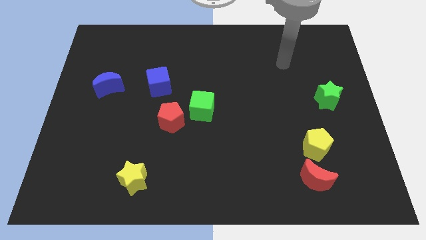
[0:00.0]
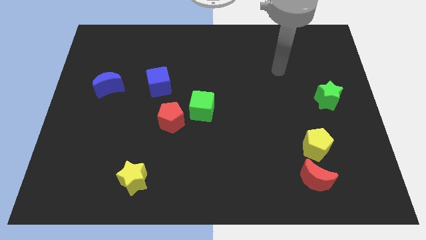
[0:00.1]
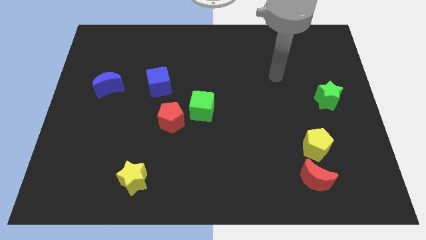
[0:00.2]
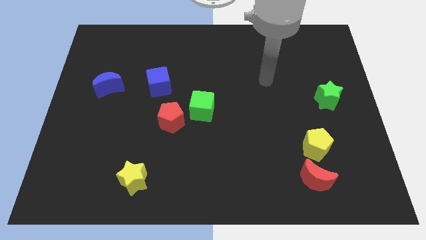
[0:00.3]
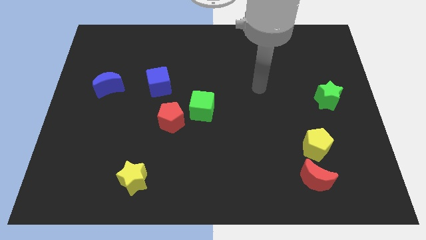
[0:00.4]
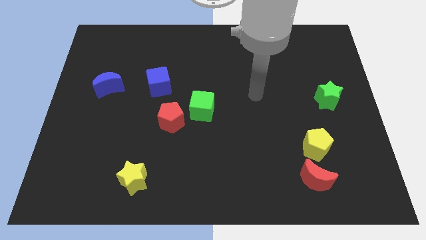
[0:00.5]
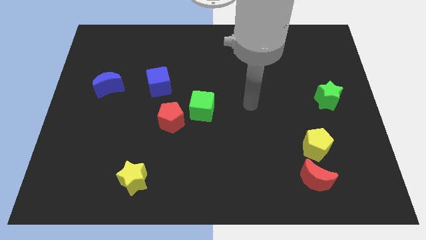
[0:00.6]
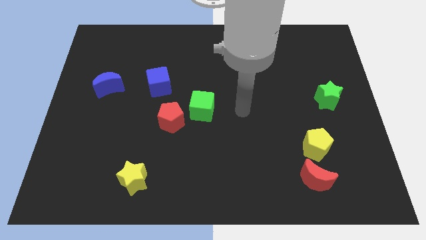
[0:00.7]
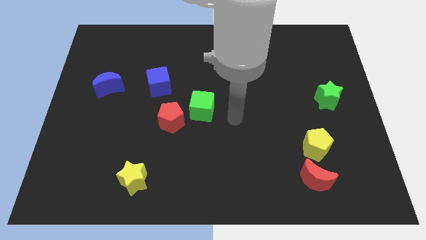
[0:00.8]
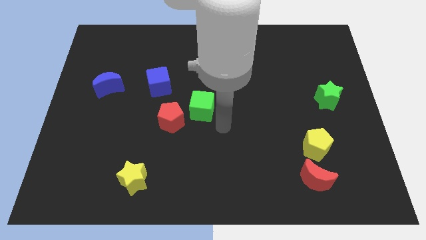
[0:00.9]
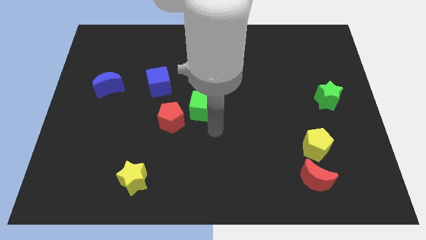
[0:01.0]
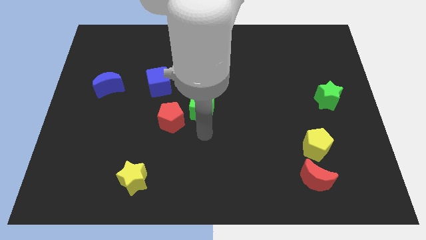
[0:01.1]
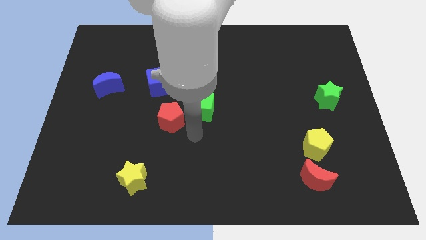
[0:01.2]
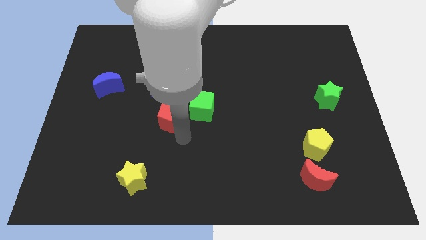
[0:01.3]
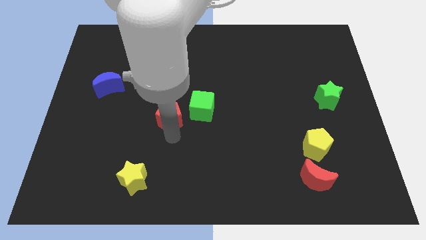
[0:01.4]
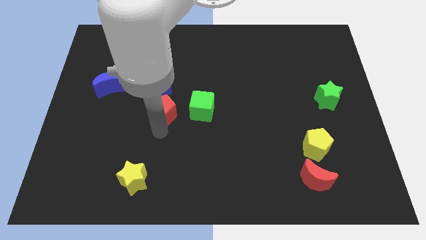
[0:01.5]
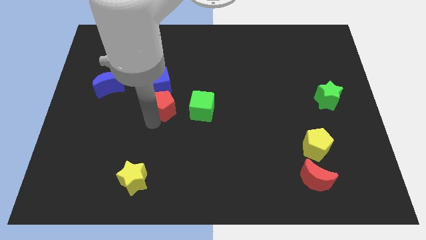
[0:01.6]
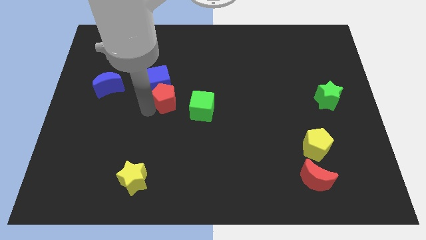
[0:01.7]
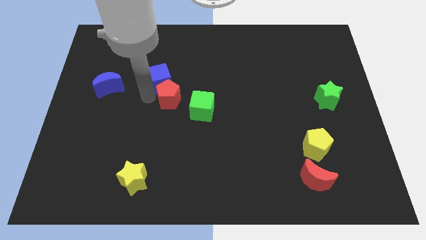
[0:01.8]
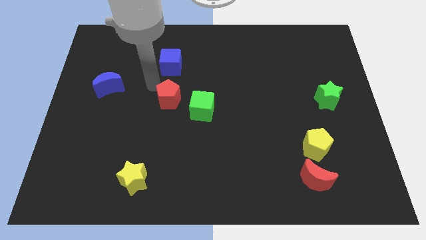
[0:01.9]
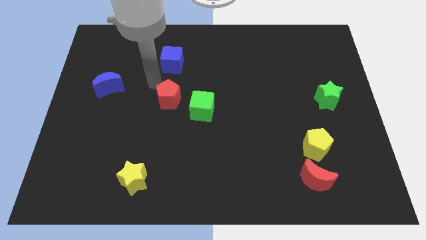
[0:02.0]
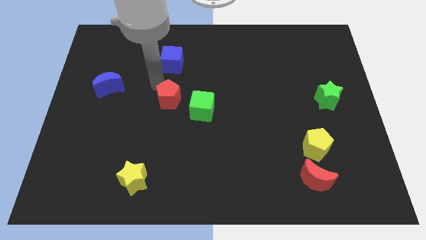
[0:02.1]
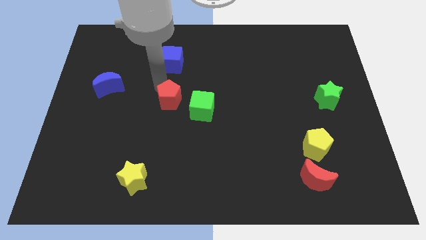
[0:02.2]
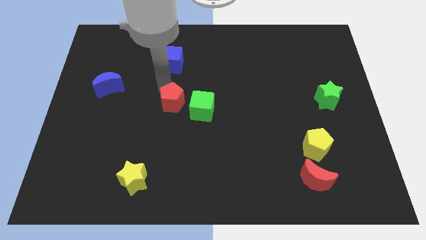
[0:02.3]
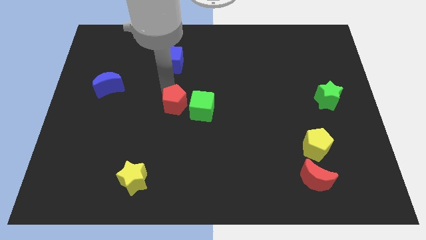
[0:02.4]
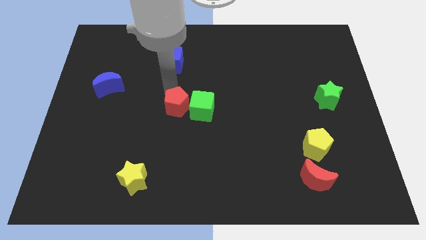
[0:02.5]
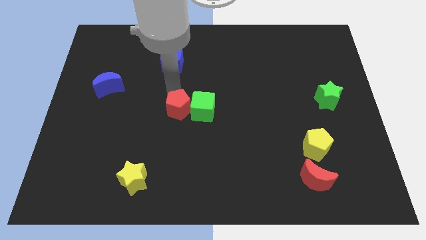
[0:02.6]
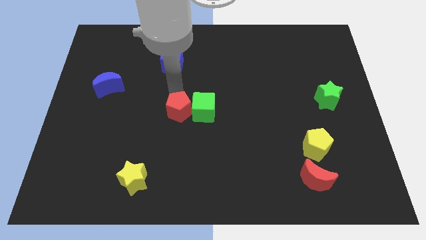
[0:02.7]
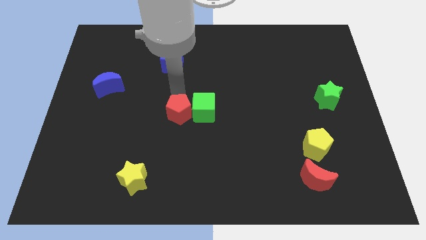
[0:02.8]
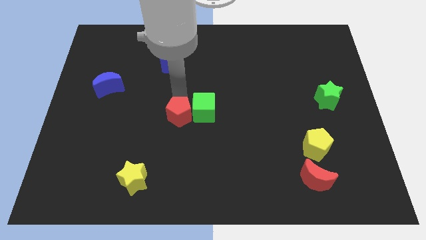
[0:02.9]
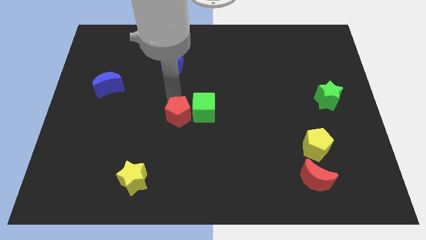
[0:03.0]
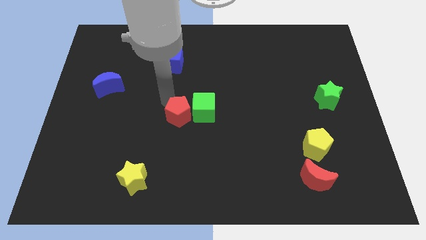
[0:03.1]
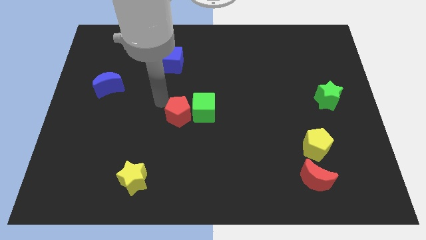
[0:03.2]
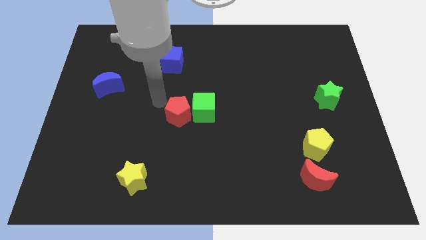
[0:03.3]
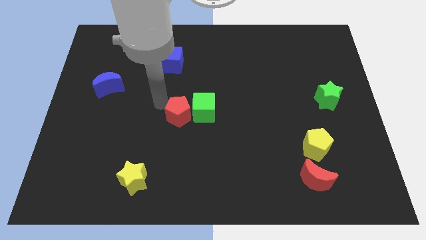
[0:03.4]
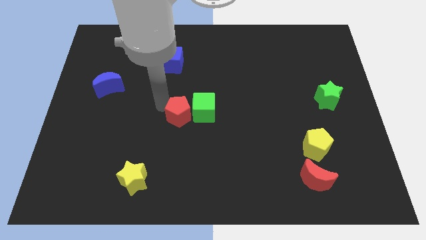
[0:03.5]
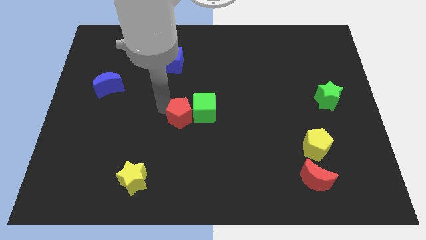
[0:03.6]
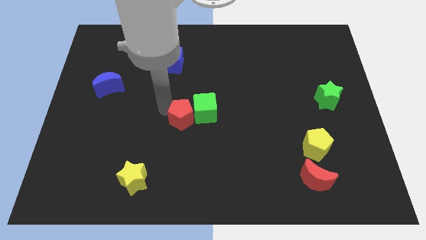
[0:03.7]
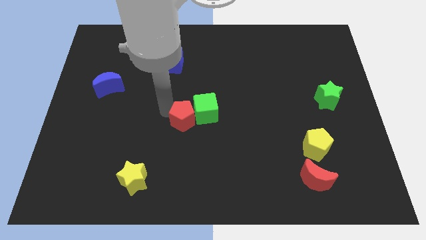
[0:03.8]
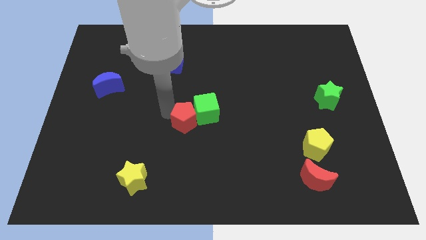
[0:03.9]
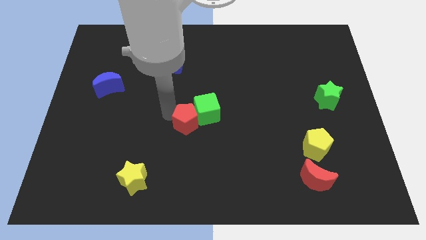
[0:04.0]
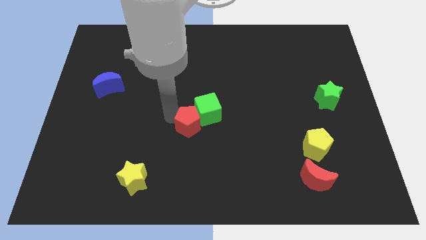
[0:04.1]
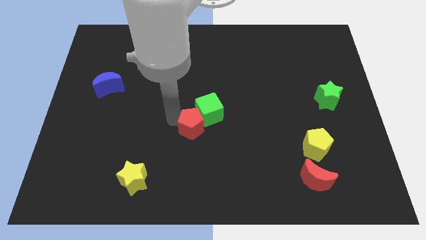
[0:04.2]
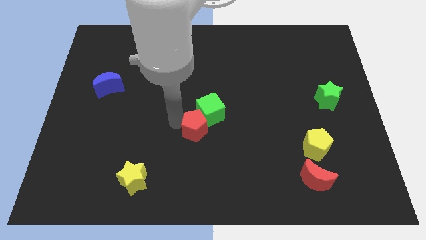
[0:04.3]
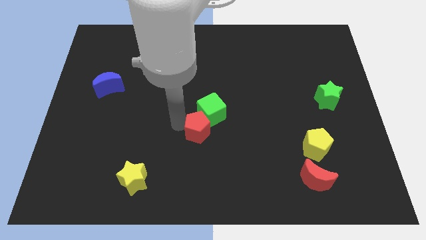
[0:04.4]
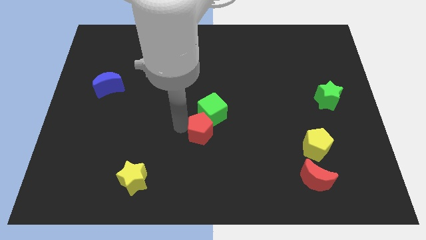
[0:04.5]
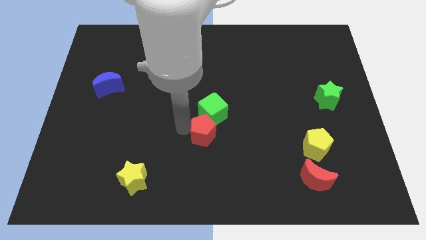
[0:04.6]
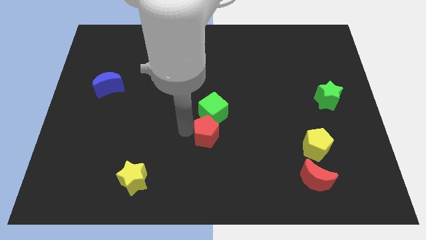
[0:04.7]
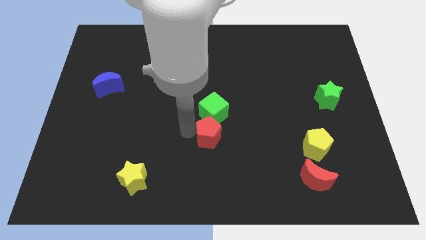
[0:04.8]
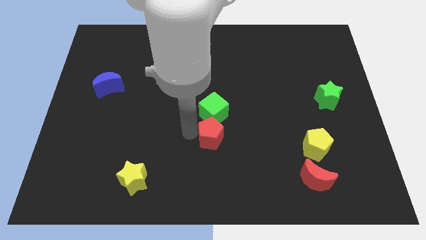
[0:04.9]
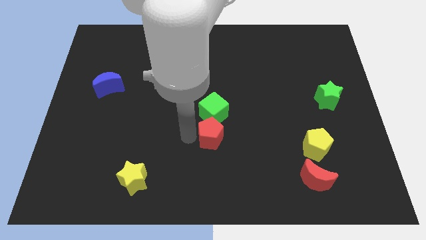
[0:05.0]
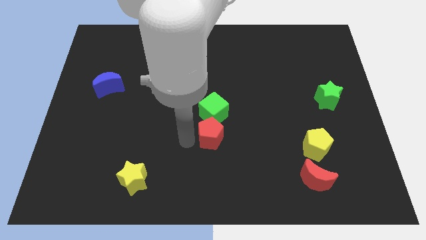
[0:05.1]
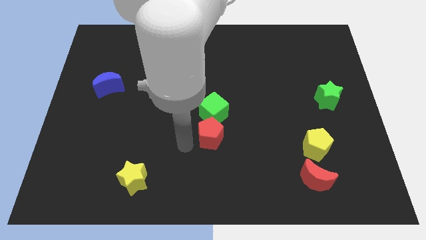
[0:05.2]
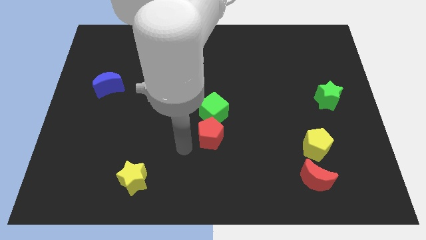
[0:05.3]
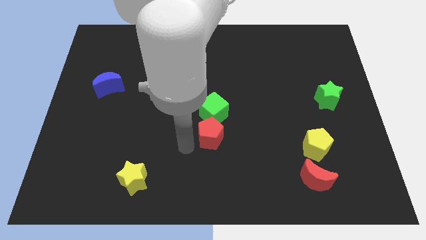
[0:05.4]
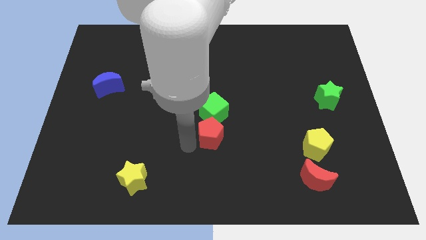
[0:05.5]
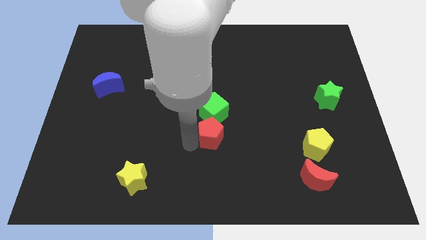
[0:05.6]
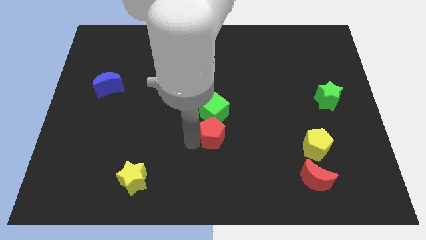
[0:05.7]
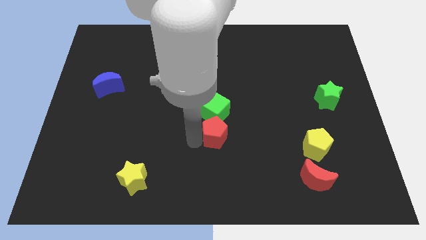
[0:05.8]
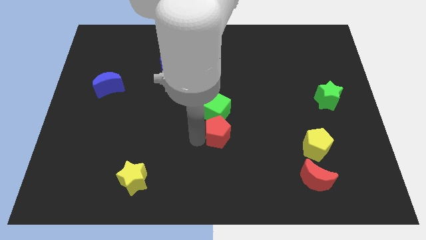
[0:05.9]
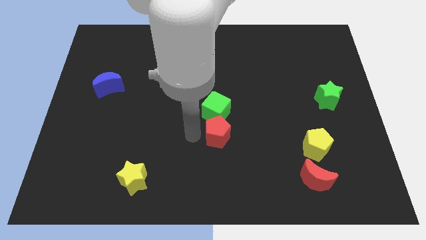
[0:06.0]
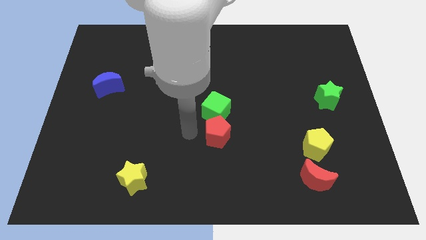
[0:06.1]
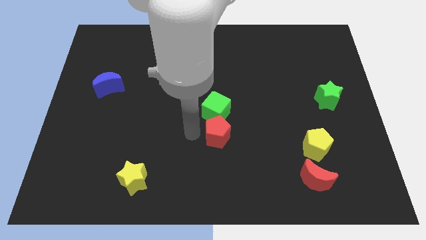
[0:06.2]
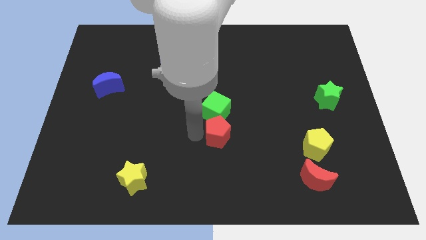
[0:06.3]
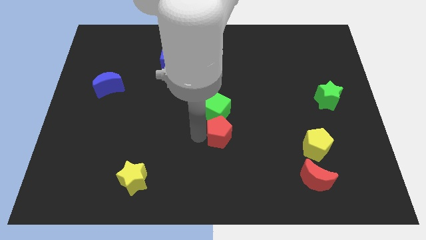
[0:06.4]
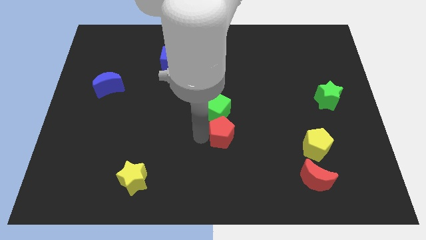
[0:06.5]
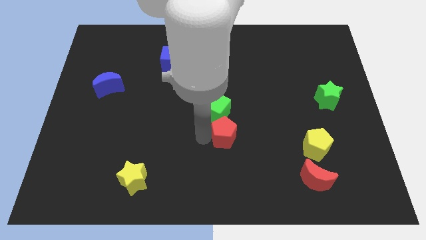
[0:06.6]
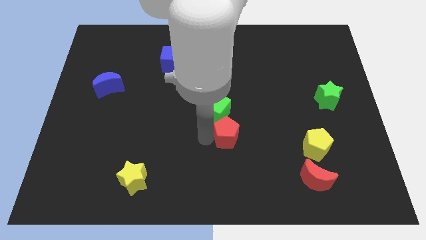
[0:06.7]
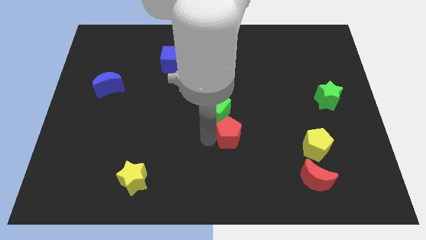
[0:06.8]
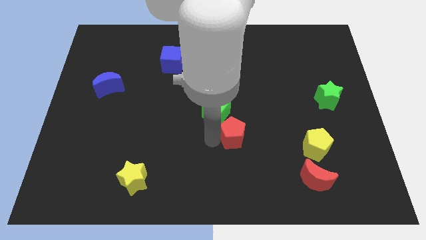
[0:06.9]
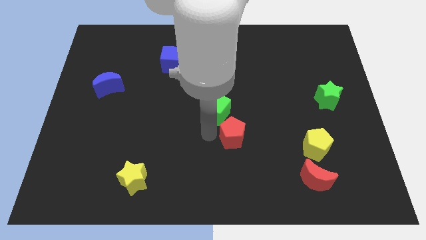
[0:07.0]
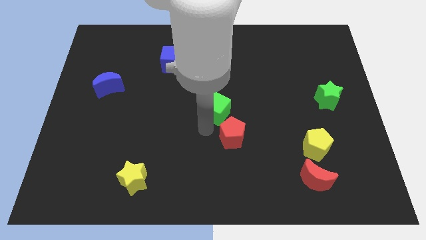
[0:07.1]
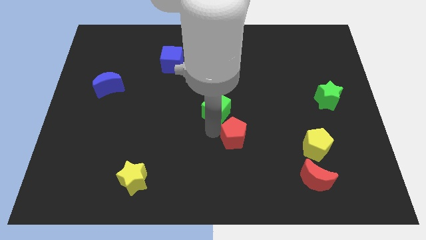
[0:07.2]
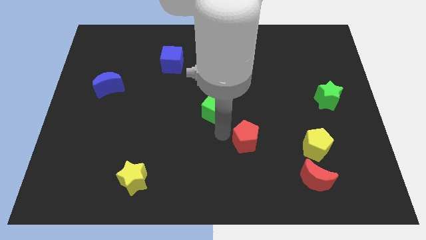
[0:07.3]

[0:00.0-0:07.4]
move the red pentagon to the left of the yellow pentagon
